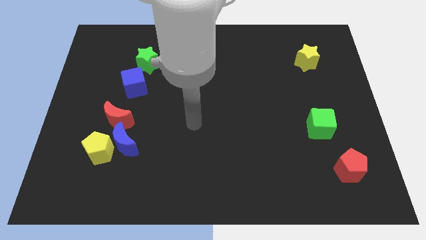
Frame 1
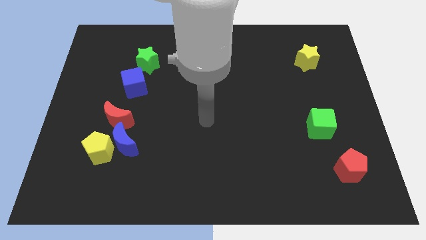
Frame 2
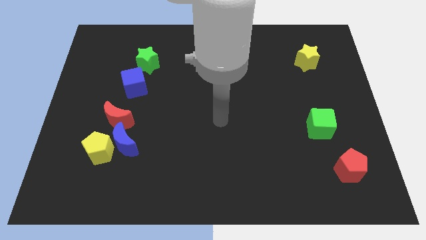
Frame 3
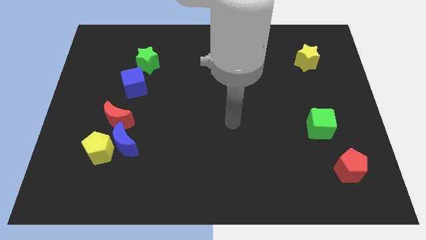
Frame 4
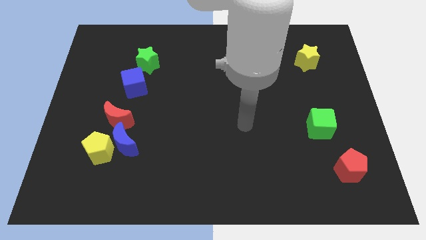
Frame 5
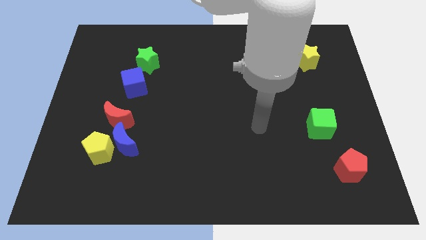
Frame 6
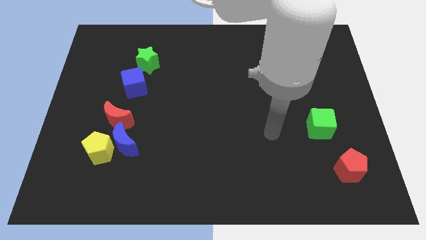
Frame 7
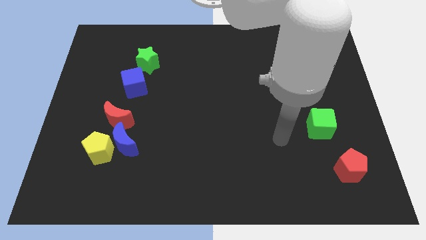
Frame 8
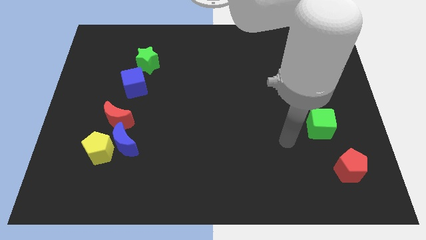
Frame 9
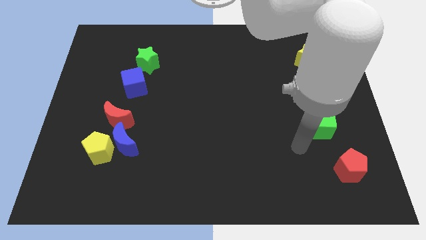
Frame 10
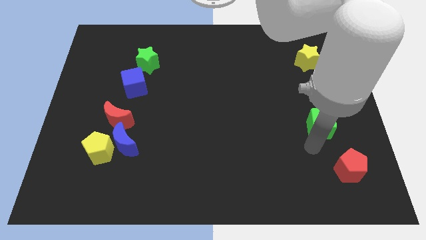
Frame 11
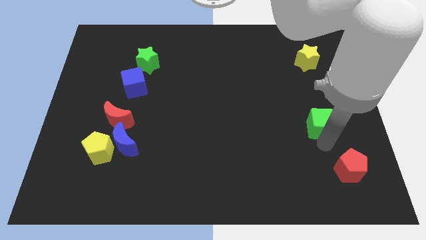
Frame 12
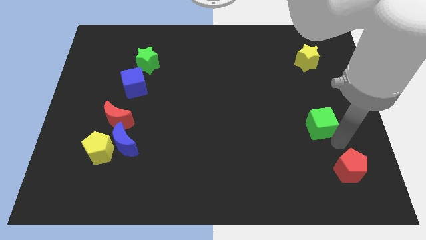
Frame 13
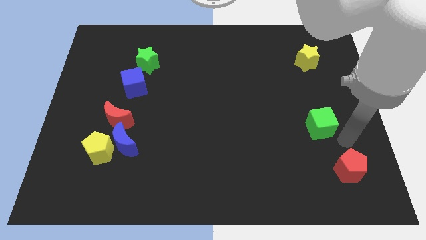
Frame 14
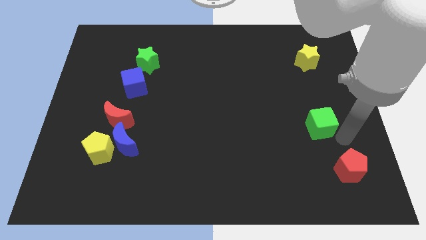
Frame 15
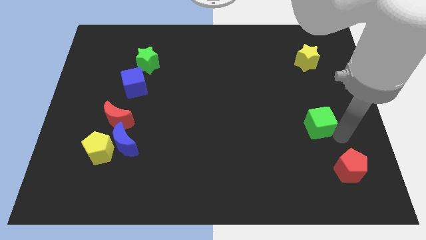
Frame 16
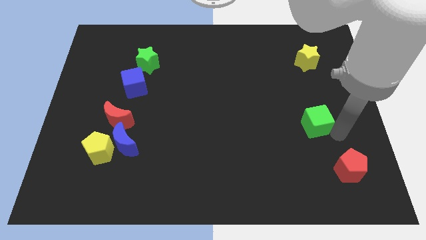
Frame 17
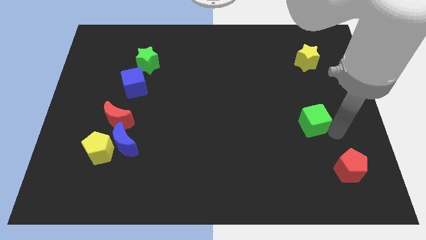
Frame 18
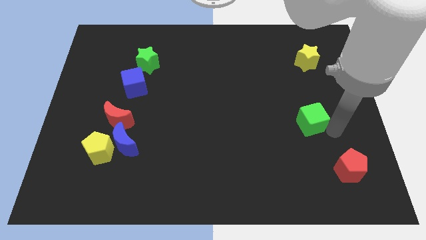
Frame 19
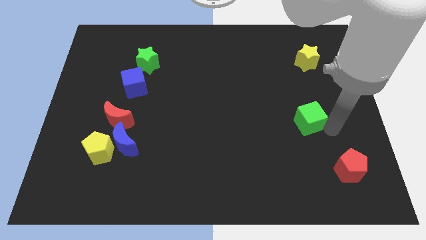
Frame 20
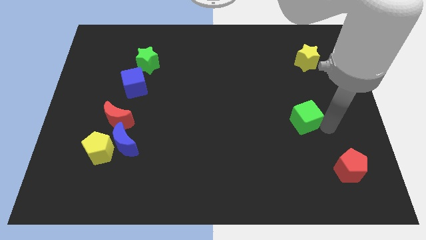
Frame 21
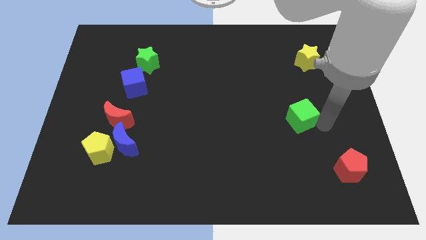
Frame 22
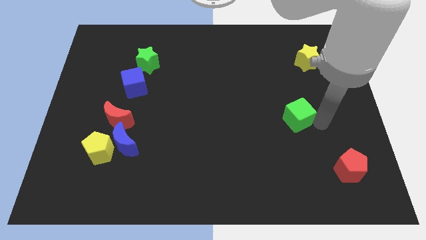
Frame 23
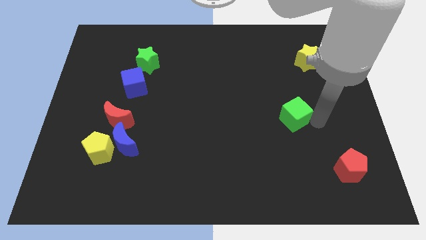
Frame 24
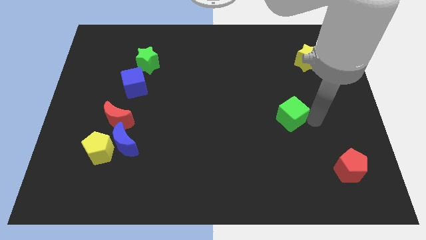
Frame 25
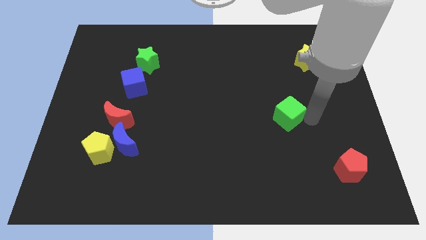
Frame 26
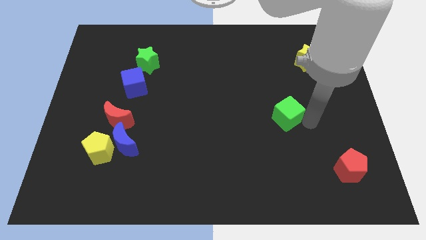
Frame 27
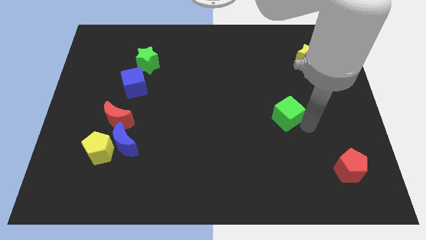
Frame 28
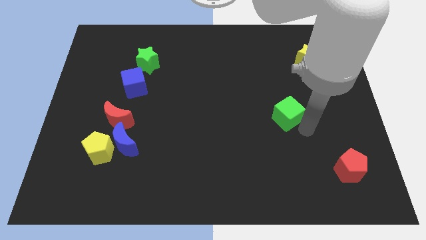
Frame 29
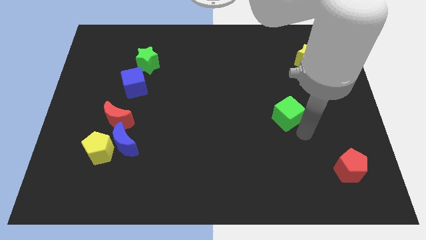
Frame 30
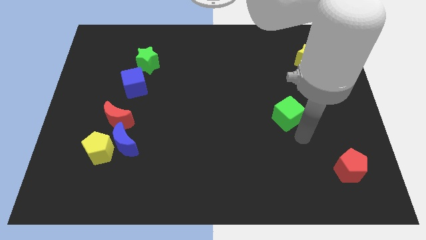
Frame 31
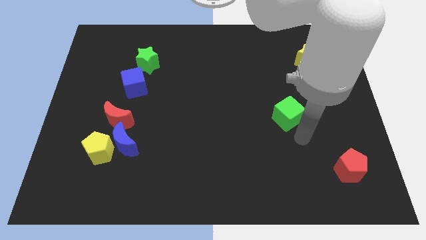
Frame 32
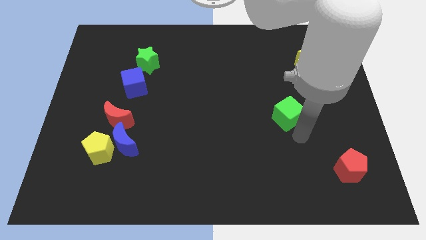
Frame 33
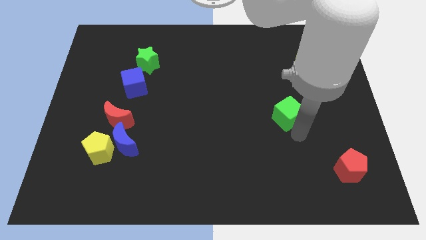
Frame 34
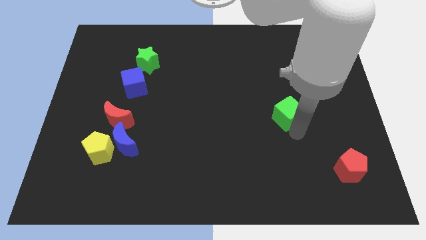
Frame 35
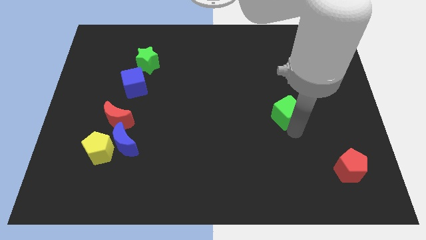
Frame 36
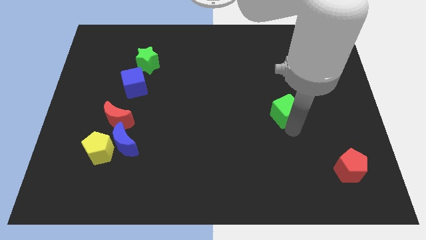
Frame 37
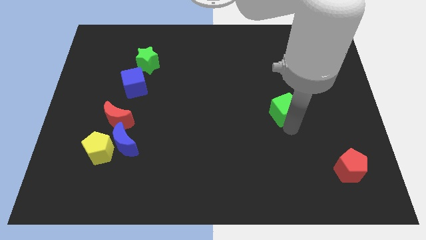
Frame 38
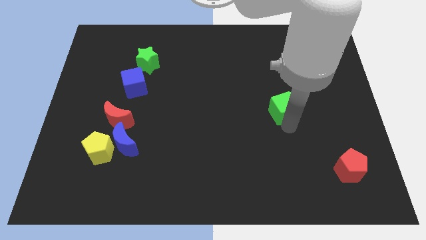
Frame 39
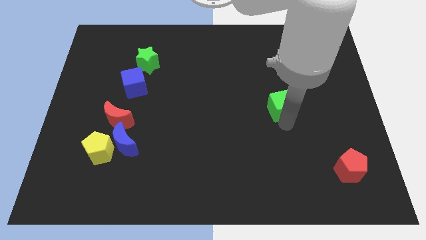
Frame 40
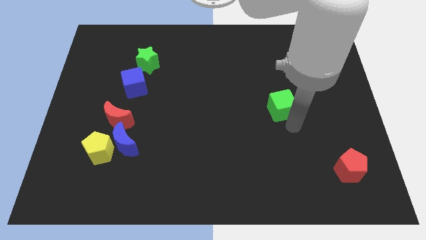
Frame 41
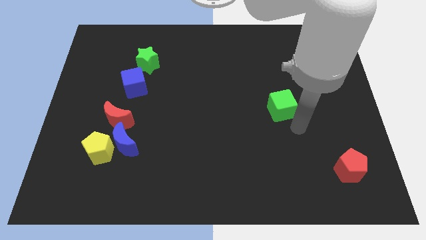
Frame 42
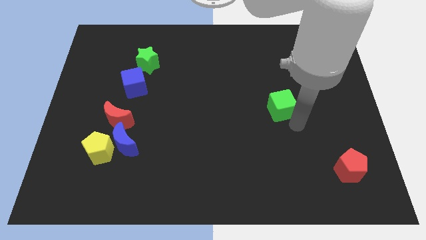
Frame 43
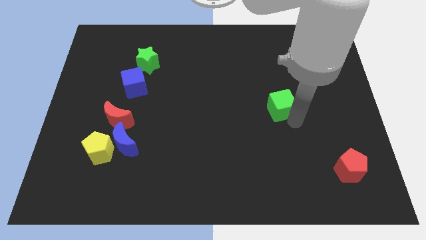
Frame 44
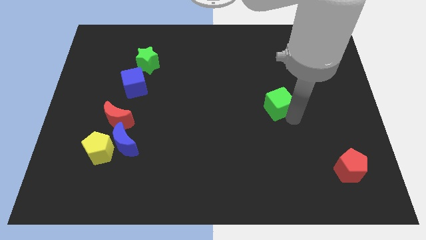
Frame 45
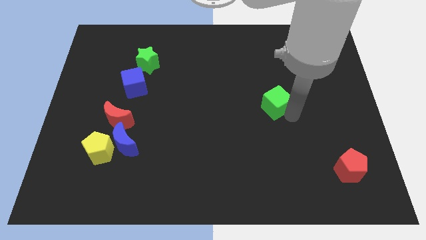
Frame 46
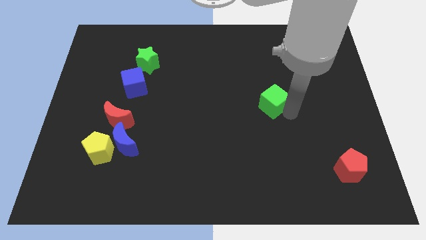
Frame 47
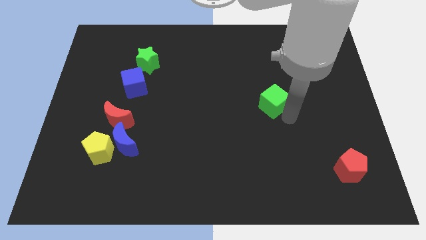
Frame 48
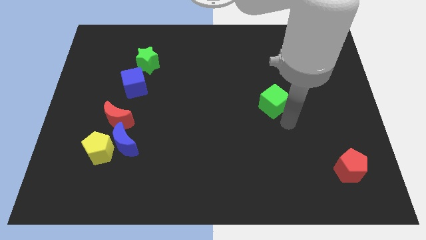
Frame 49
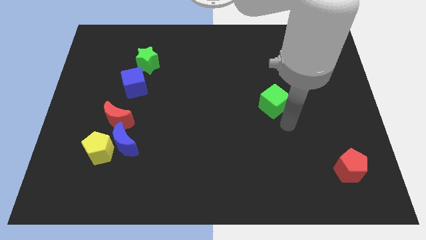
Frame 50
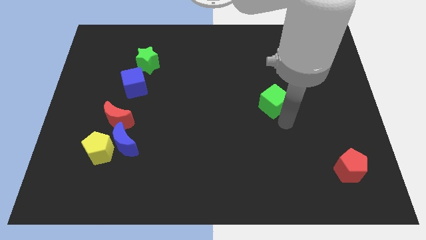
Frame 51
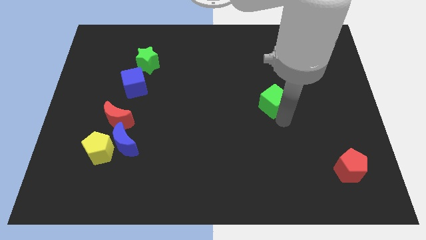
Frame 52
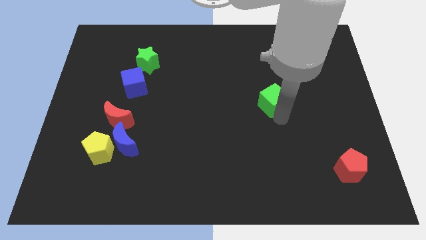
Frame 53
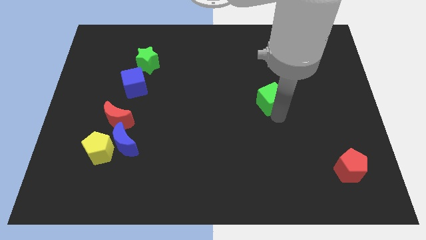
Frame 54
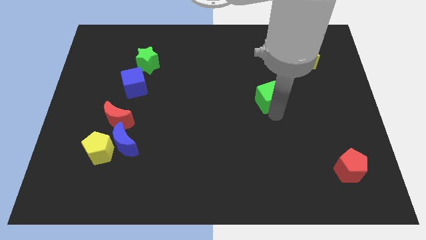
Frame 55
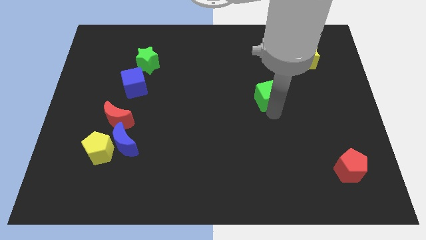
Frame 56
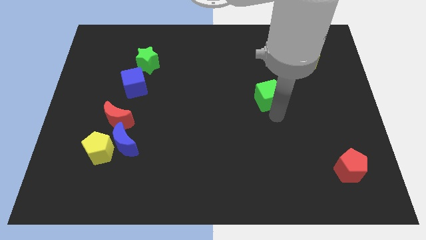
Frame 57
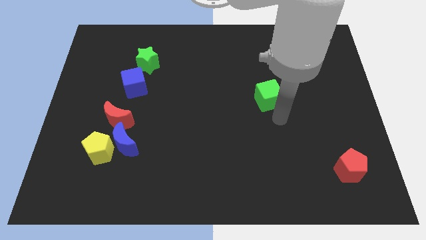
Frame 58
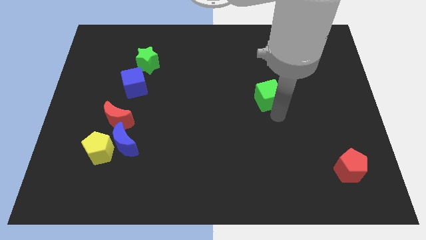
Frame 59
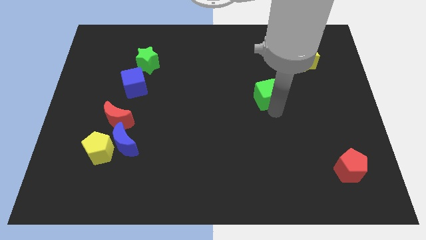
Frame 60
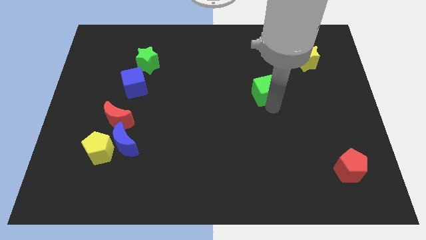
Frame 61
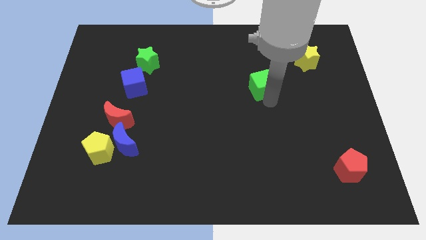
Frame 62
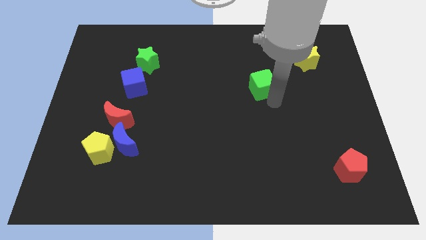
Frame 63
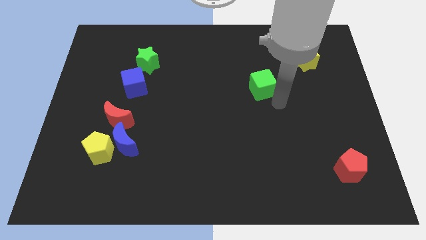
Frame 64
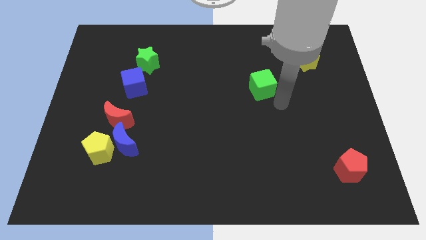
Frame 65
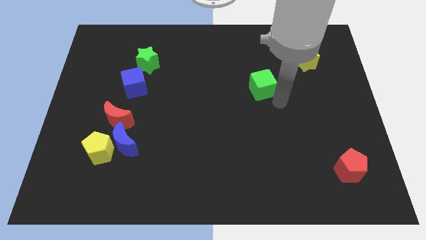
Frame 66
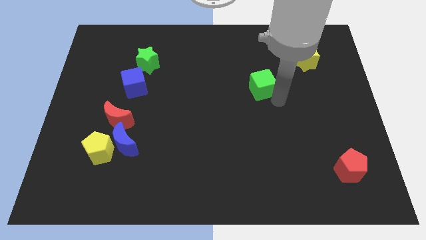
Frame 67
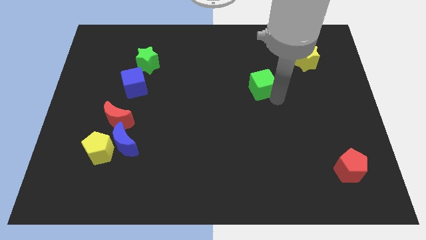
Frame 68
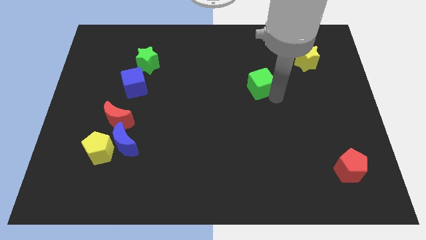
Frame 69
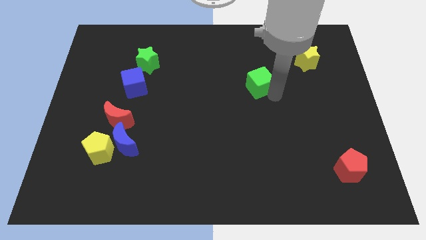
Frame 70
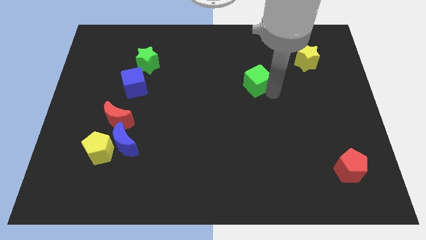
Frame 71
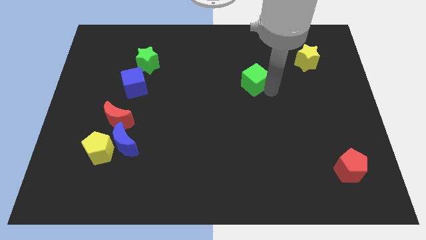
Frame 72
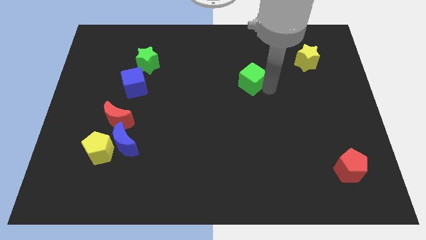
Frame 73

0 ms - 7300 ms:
move the green cube up and then left

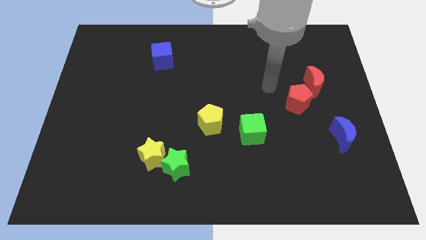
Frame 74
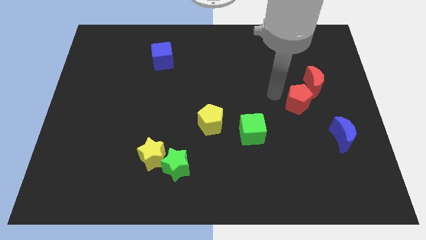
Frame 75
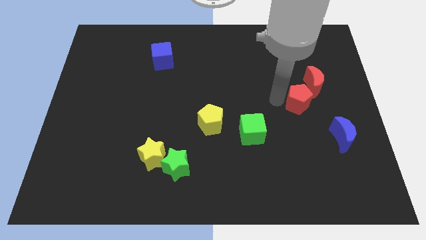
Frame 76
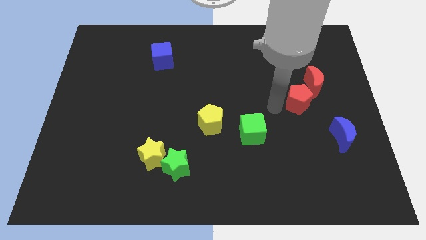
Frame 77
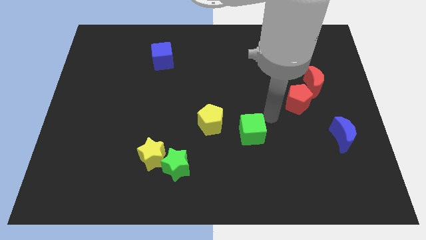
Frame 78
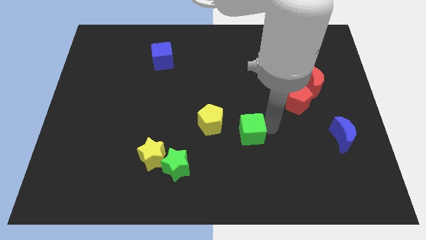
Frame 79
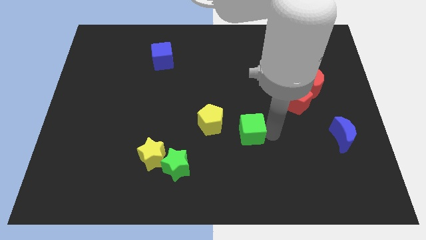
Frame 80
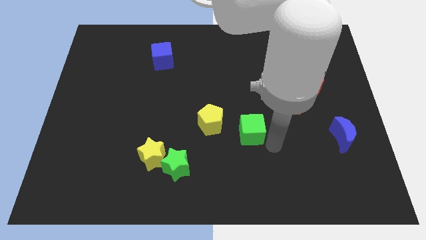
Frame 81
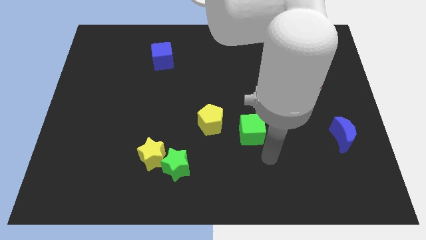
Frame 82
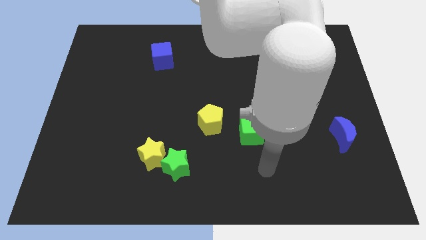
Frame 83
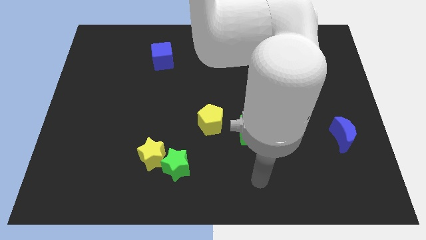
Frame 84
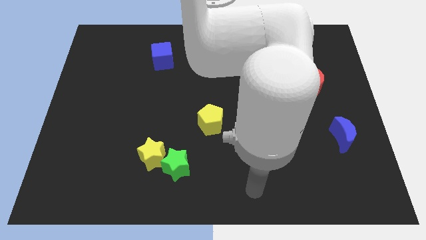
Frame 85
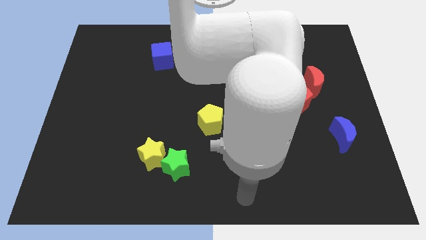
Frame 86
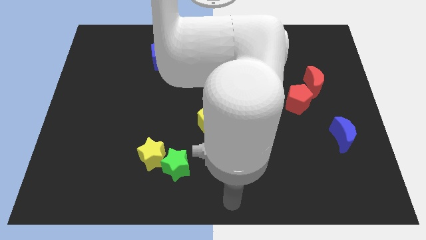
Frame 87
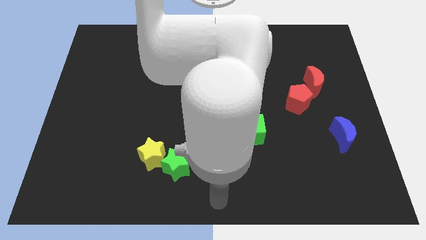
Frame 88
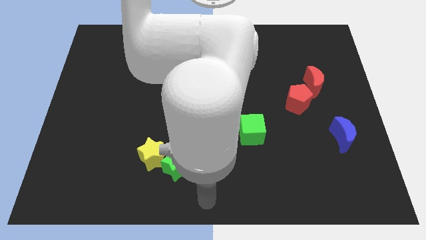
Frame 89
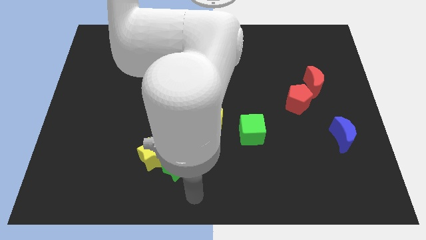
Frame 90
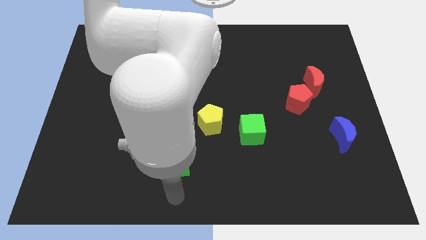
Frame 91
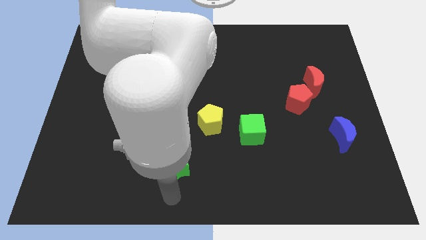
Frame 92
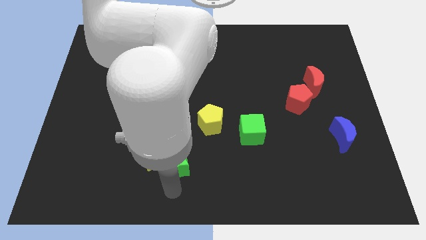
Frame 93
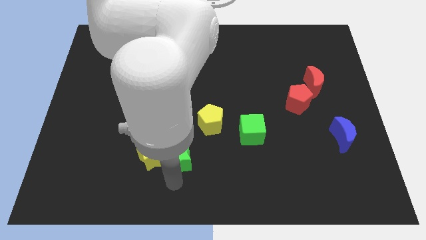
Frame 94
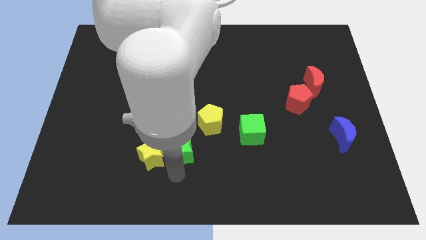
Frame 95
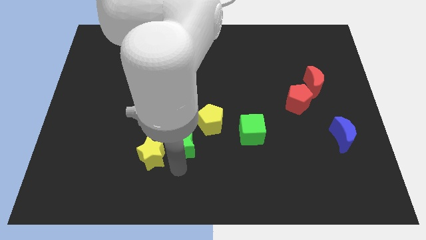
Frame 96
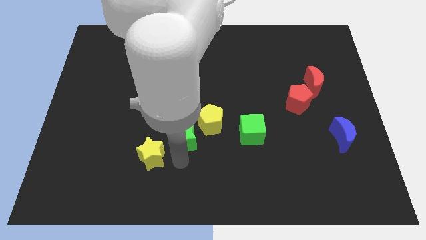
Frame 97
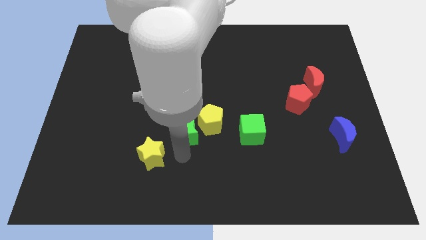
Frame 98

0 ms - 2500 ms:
slide the green star slightly upwards
